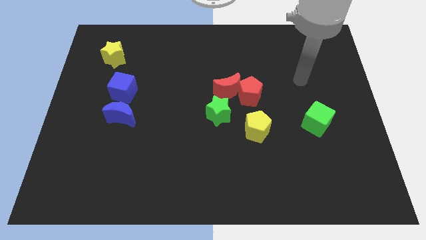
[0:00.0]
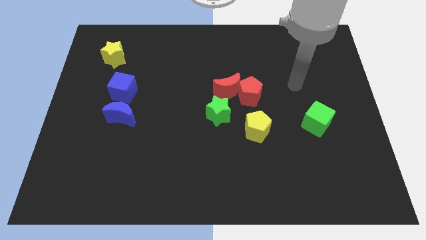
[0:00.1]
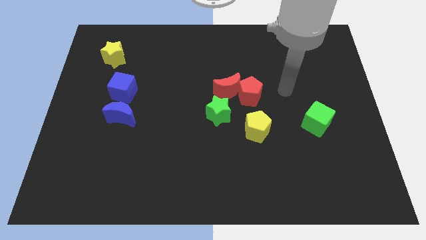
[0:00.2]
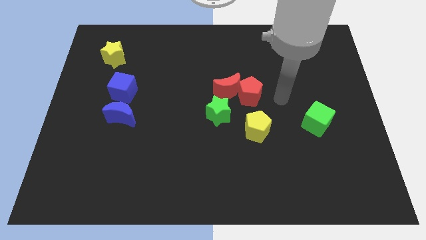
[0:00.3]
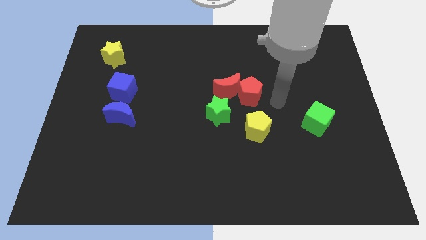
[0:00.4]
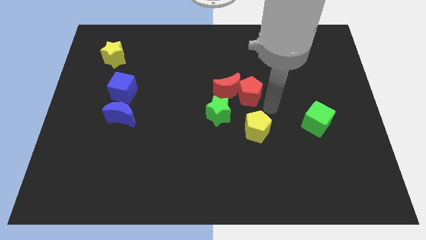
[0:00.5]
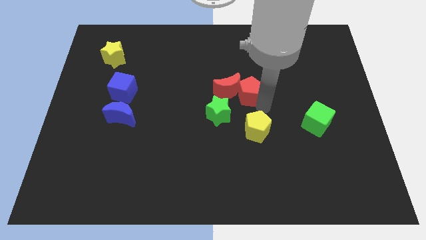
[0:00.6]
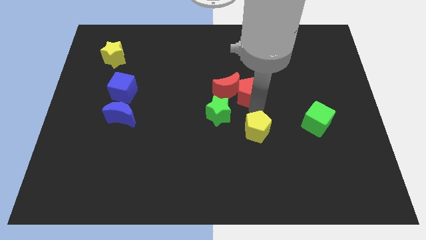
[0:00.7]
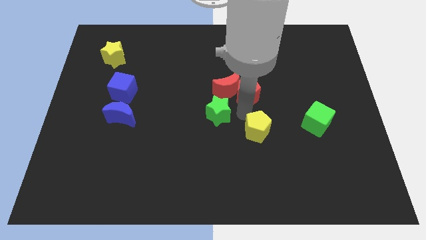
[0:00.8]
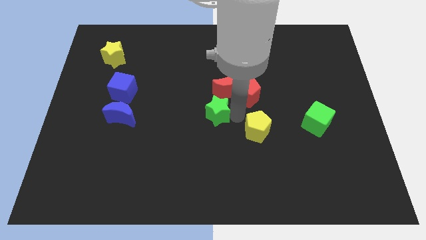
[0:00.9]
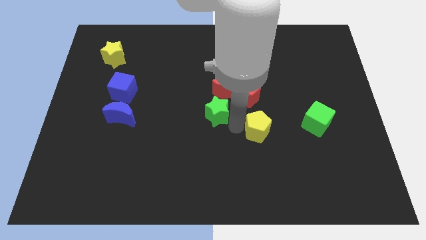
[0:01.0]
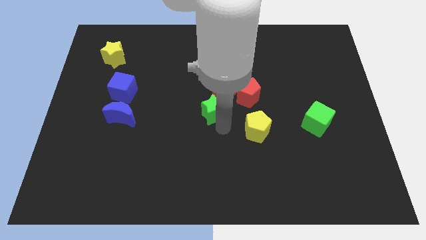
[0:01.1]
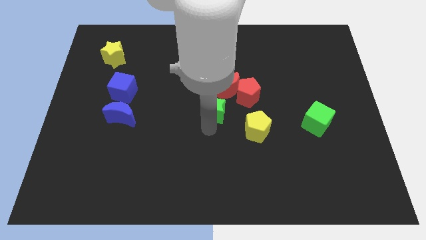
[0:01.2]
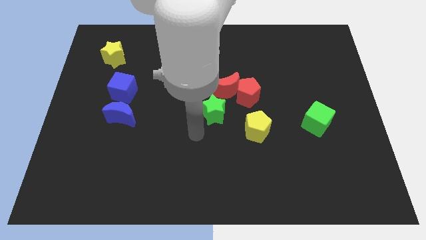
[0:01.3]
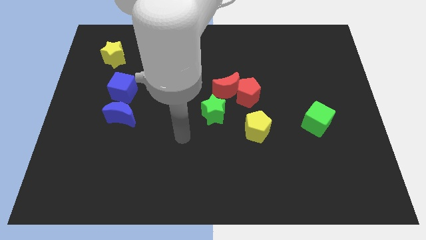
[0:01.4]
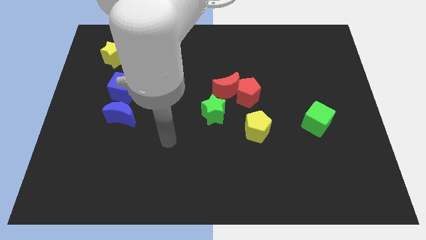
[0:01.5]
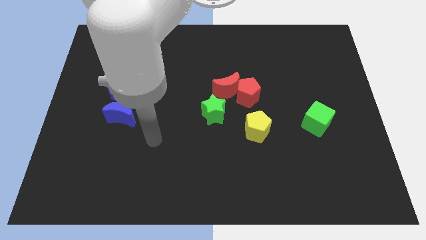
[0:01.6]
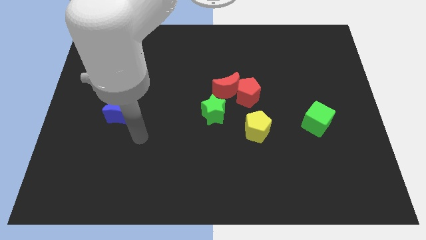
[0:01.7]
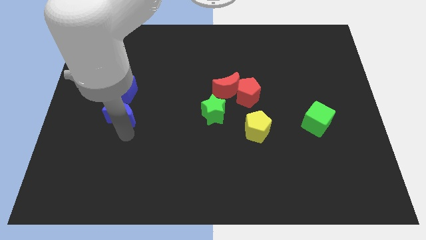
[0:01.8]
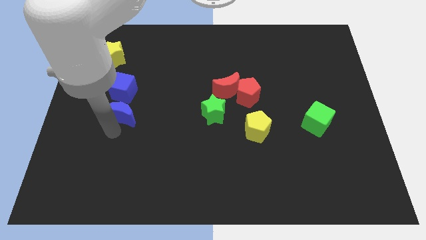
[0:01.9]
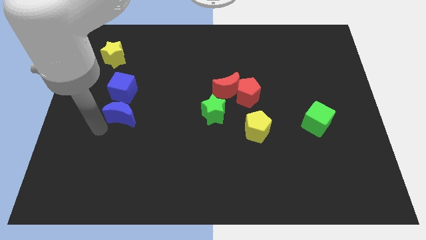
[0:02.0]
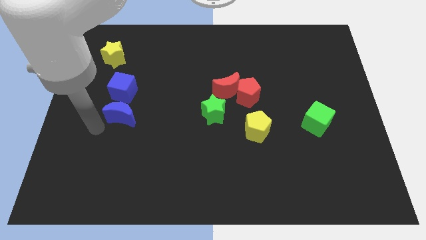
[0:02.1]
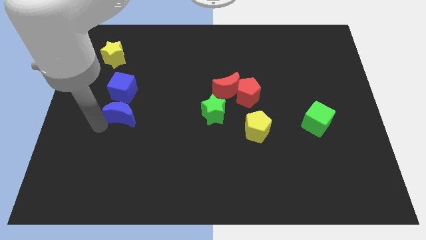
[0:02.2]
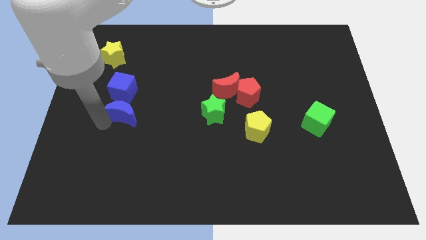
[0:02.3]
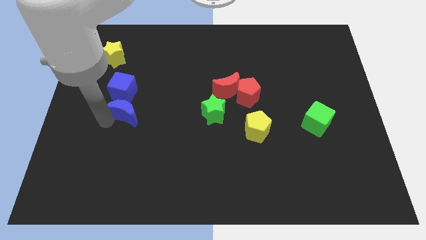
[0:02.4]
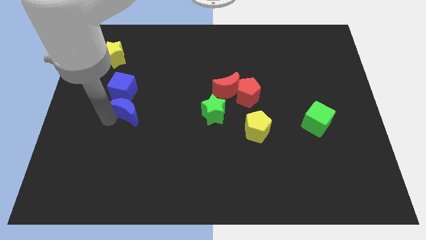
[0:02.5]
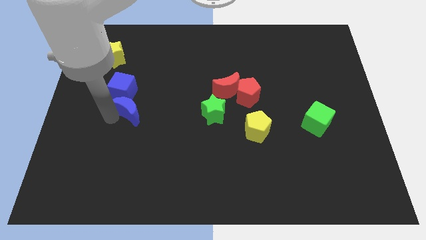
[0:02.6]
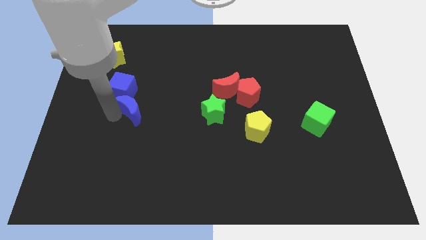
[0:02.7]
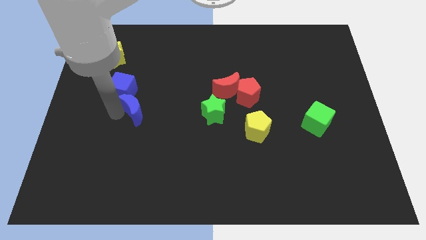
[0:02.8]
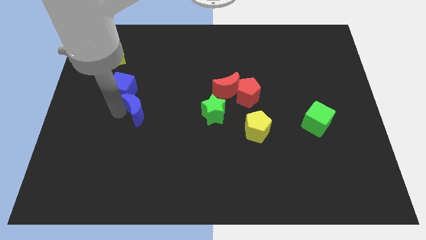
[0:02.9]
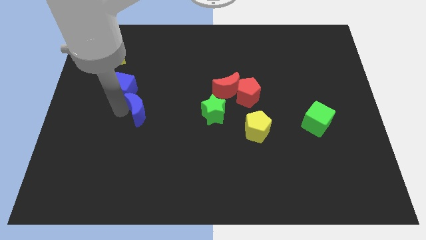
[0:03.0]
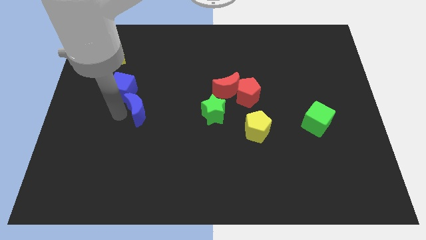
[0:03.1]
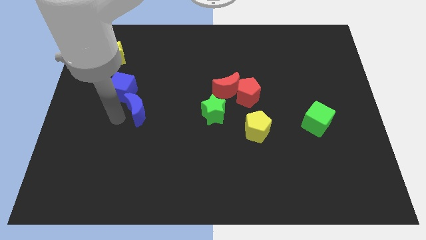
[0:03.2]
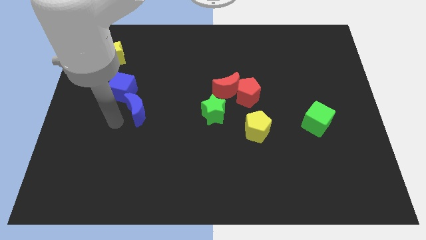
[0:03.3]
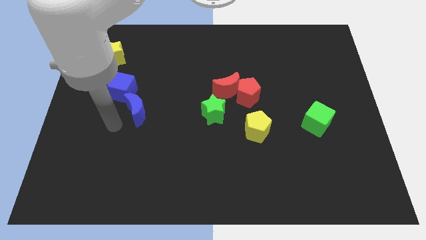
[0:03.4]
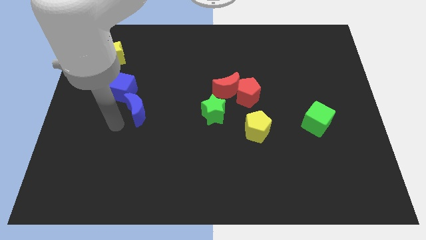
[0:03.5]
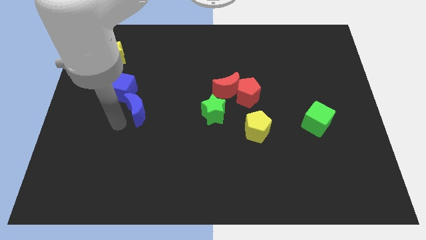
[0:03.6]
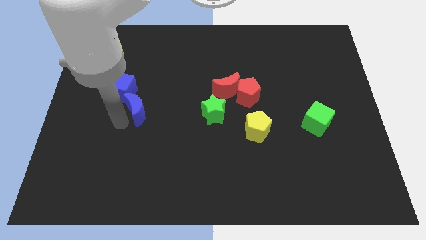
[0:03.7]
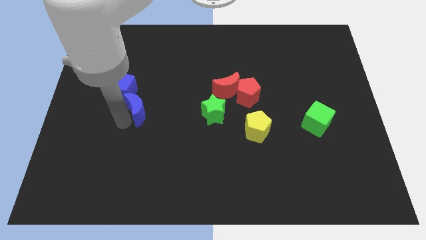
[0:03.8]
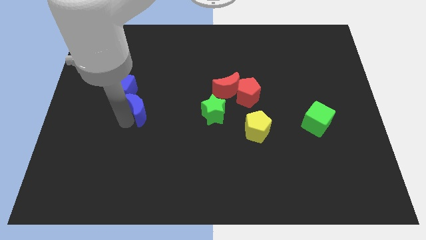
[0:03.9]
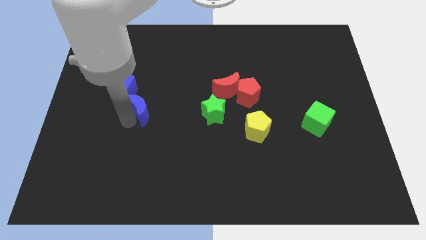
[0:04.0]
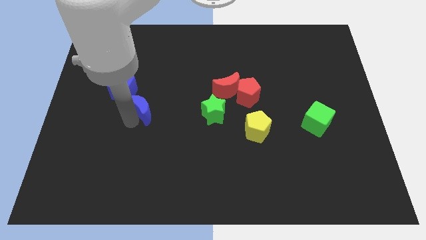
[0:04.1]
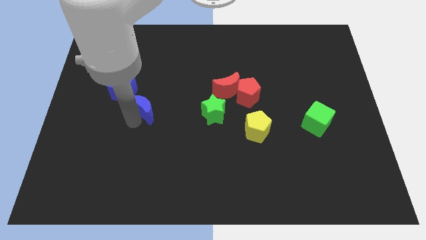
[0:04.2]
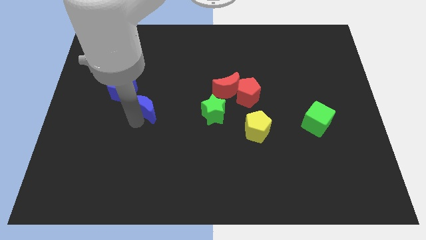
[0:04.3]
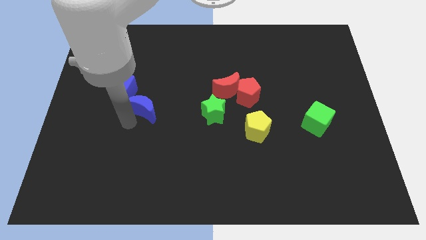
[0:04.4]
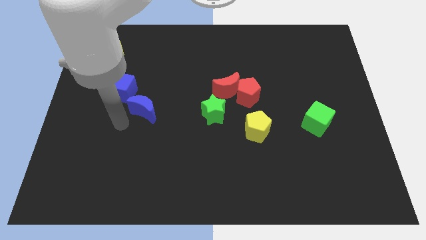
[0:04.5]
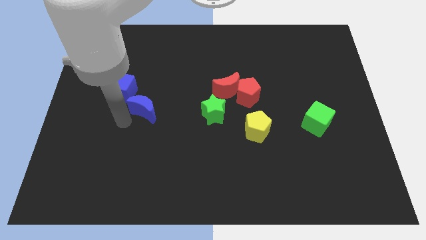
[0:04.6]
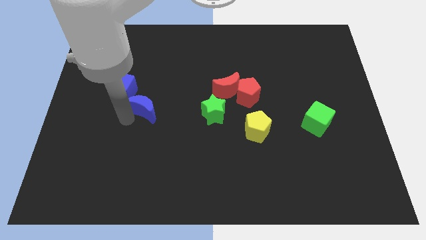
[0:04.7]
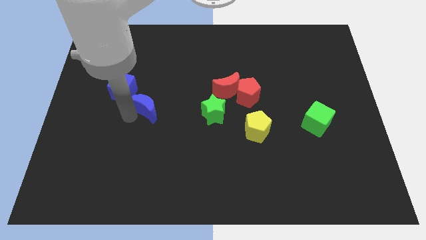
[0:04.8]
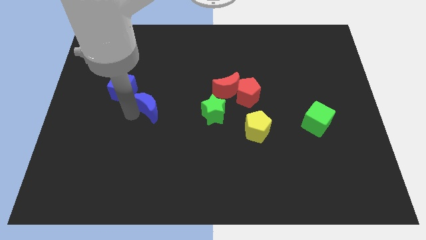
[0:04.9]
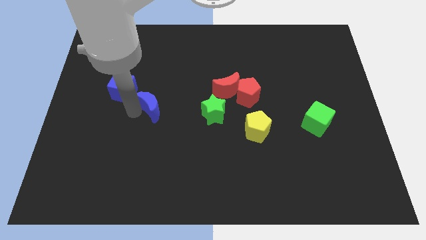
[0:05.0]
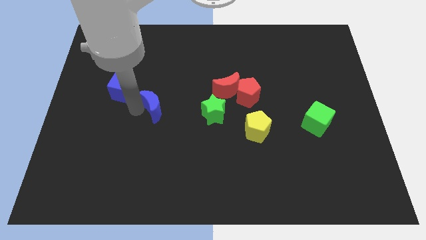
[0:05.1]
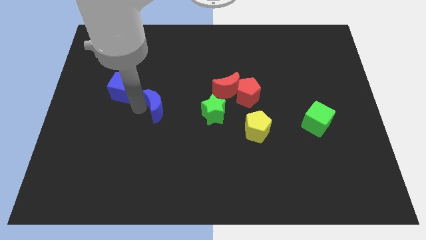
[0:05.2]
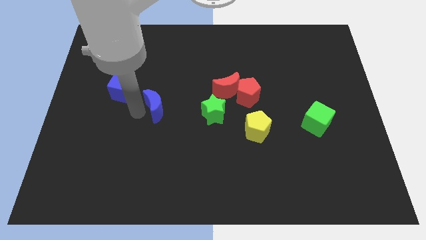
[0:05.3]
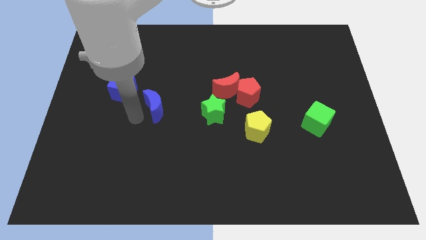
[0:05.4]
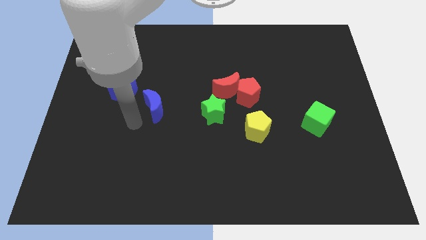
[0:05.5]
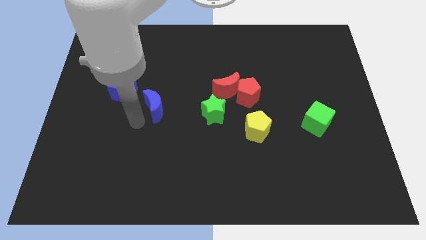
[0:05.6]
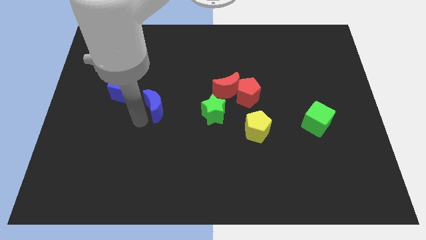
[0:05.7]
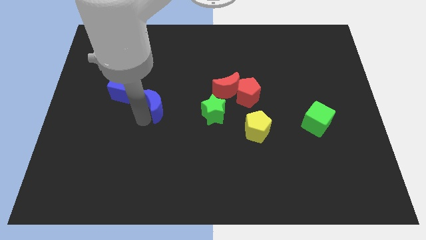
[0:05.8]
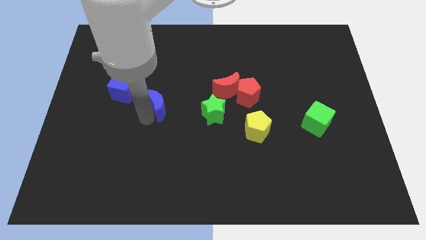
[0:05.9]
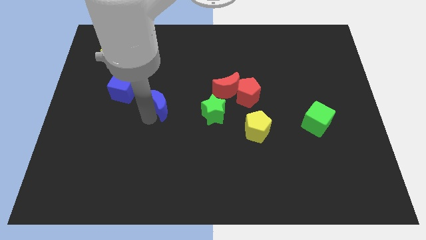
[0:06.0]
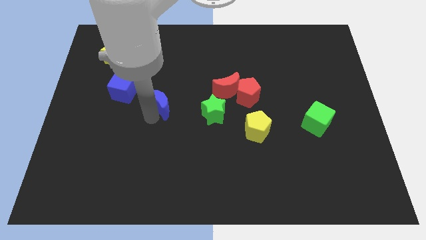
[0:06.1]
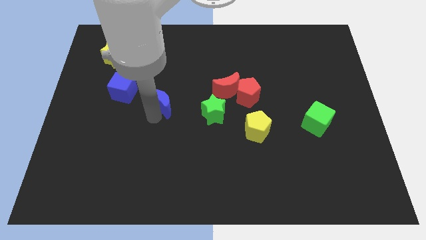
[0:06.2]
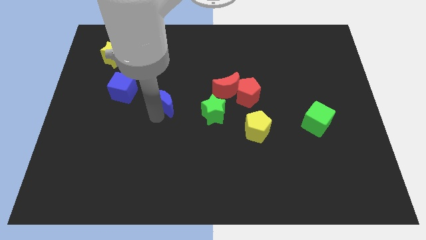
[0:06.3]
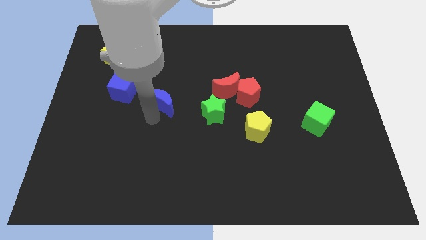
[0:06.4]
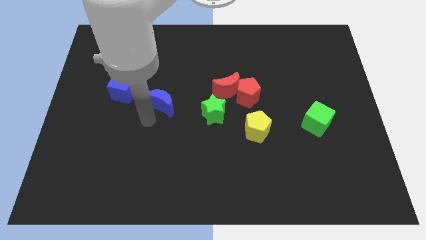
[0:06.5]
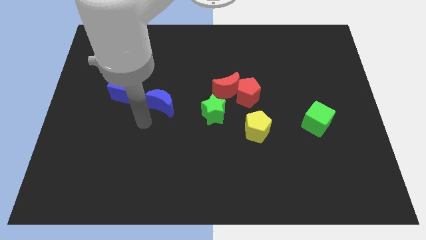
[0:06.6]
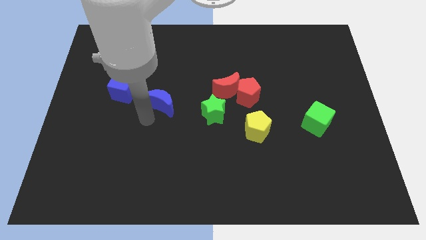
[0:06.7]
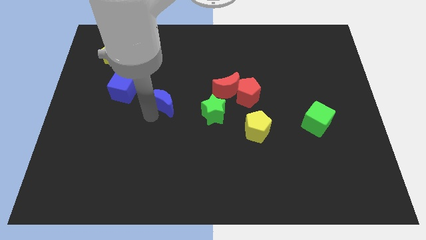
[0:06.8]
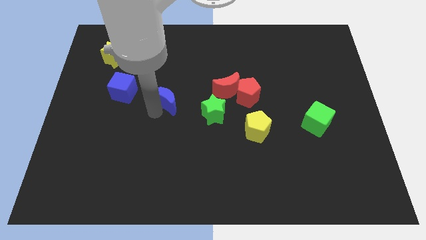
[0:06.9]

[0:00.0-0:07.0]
put the blue moon left of the red moon
